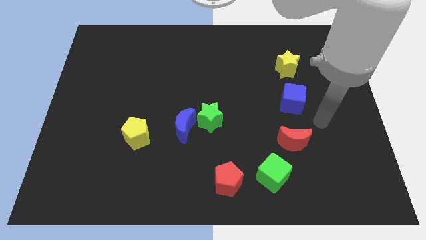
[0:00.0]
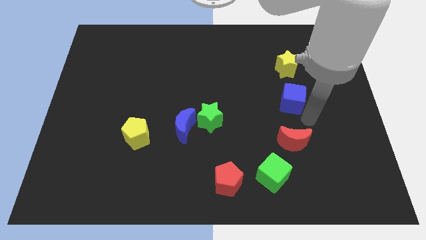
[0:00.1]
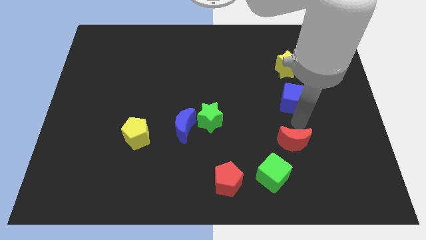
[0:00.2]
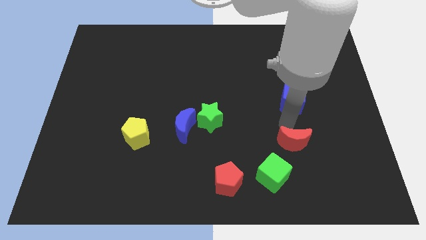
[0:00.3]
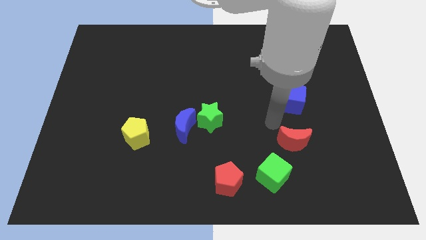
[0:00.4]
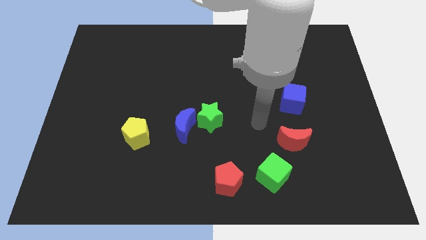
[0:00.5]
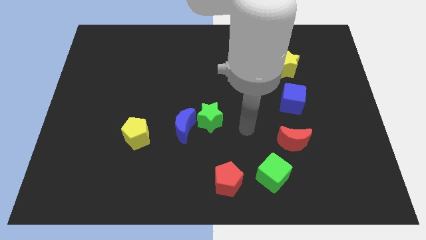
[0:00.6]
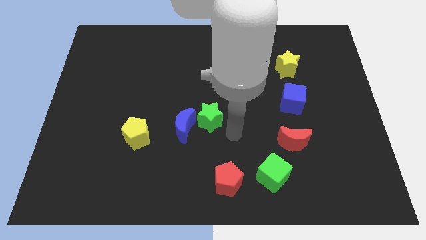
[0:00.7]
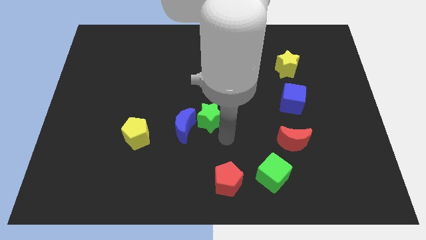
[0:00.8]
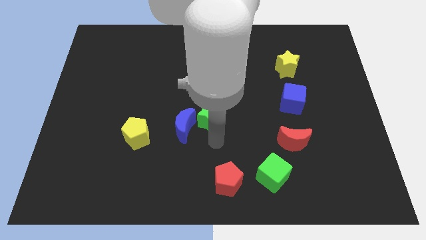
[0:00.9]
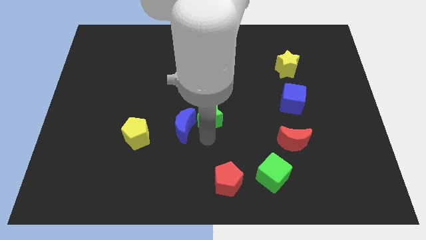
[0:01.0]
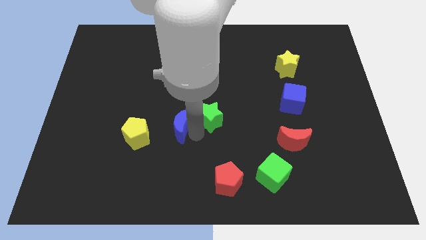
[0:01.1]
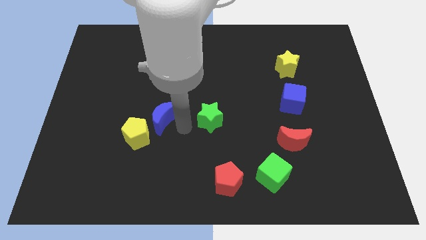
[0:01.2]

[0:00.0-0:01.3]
pull the green star apart from the blue moon

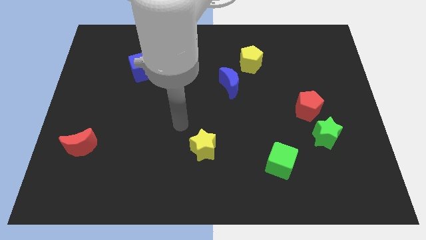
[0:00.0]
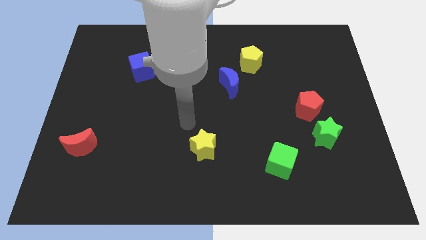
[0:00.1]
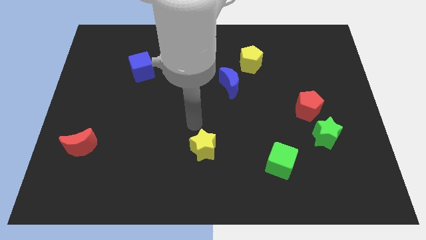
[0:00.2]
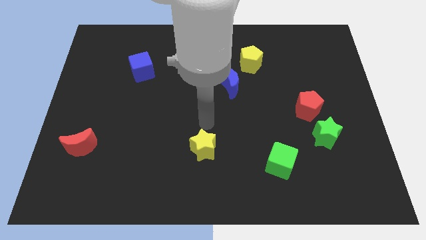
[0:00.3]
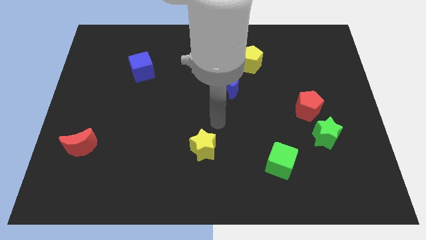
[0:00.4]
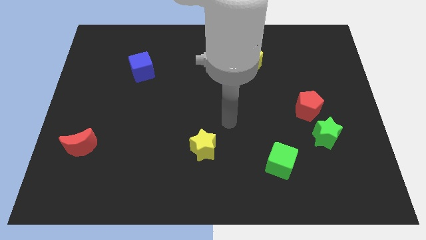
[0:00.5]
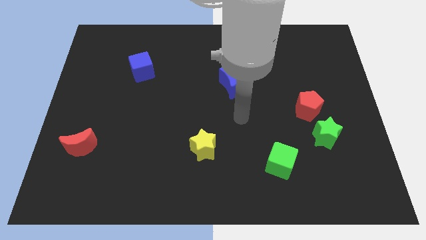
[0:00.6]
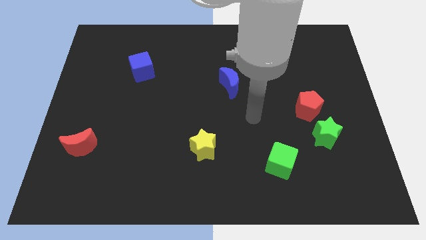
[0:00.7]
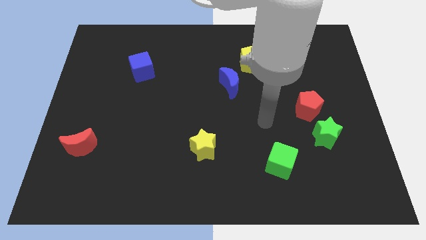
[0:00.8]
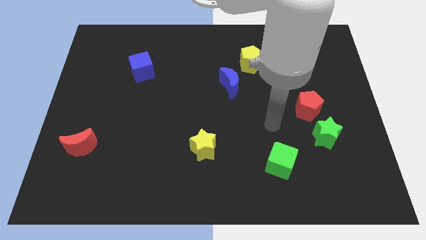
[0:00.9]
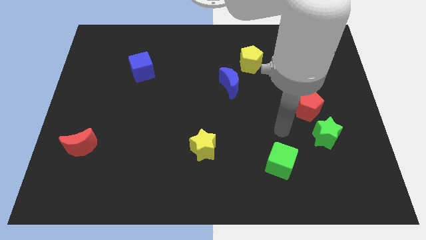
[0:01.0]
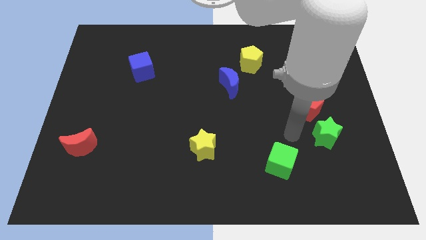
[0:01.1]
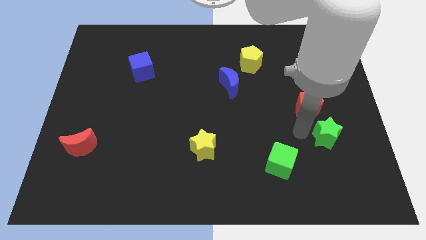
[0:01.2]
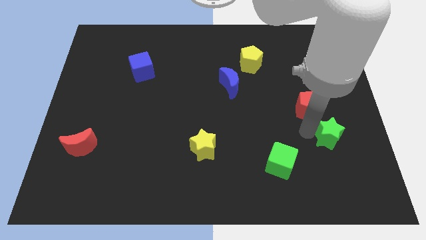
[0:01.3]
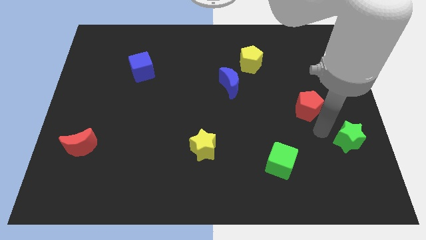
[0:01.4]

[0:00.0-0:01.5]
pull the red pentagon apart from the green star

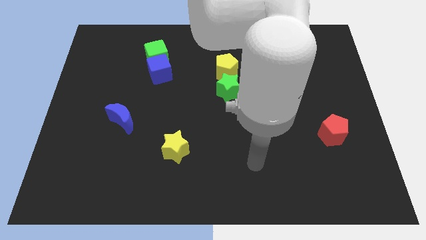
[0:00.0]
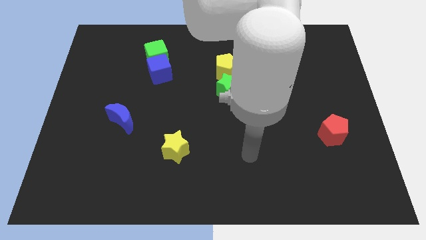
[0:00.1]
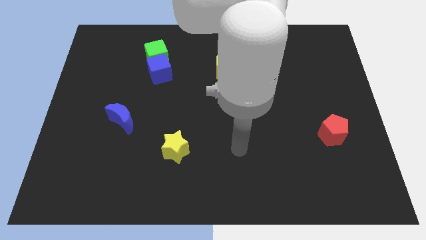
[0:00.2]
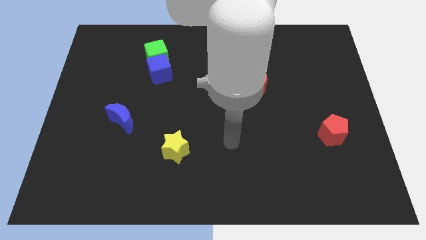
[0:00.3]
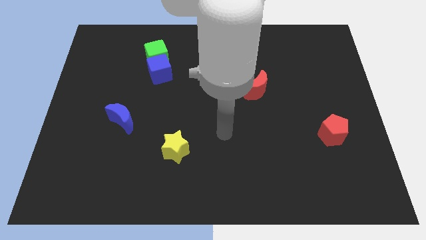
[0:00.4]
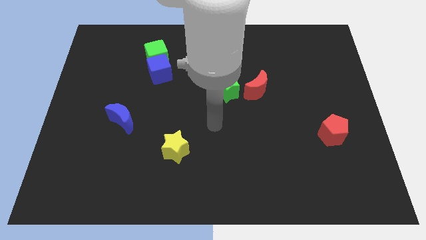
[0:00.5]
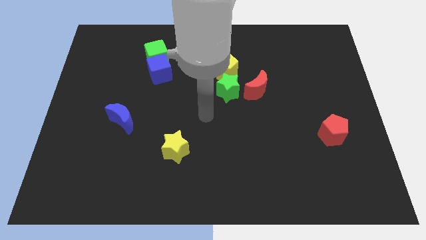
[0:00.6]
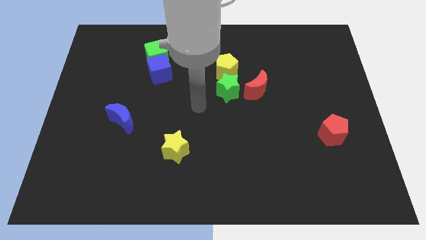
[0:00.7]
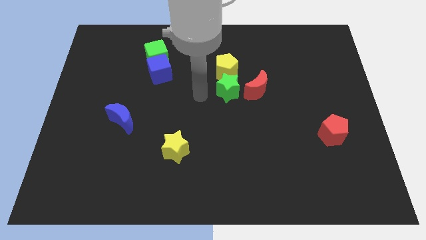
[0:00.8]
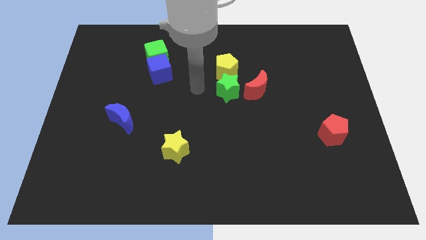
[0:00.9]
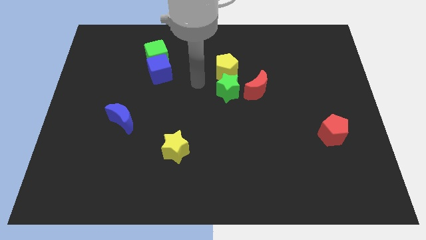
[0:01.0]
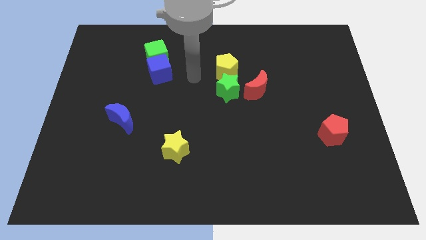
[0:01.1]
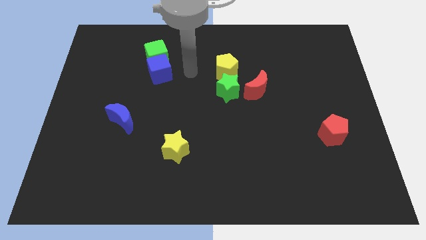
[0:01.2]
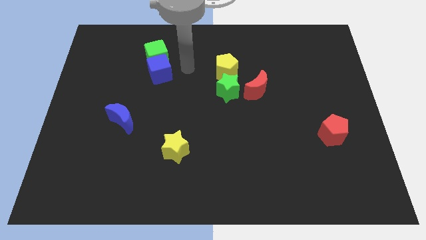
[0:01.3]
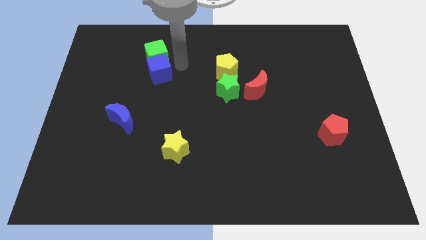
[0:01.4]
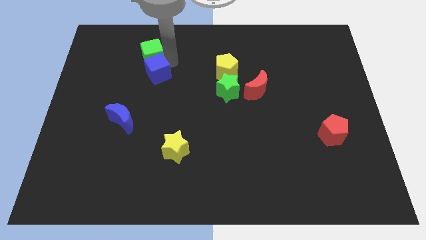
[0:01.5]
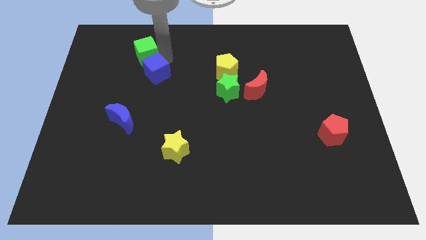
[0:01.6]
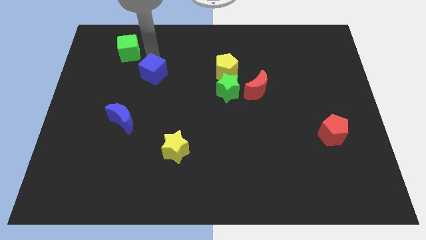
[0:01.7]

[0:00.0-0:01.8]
pull the blue cube apart from the green cube

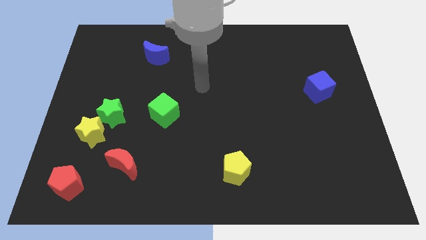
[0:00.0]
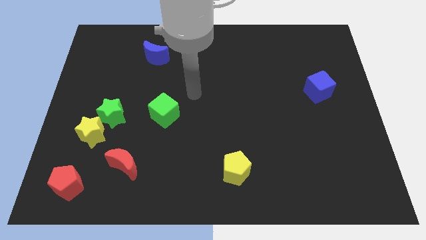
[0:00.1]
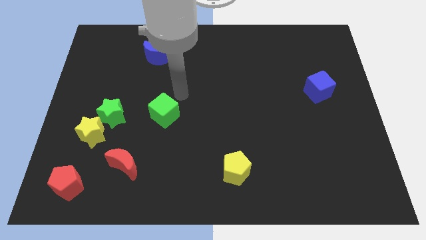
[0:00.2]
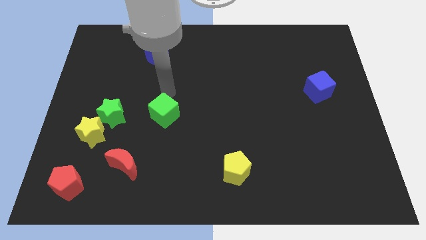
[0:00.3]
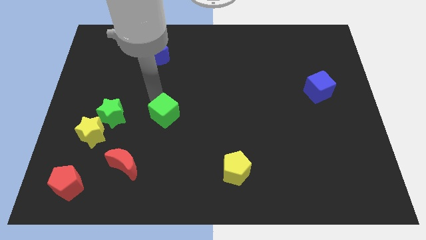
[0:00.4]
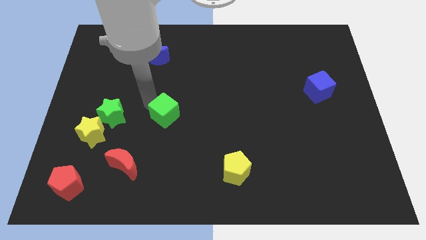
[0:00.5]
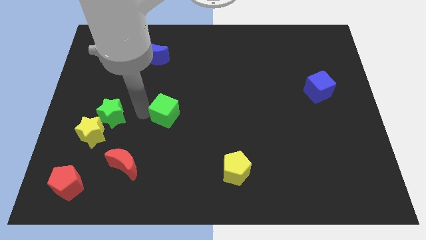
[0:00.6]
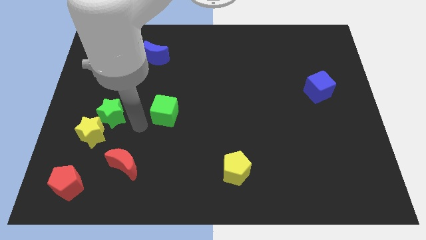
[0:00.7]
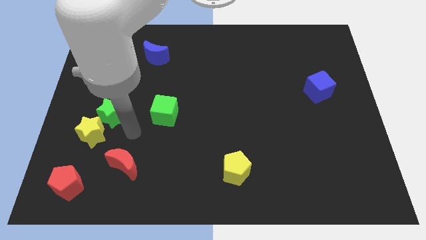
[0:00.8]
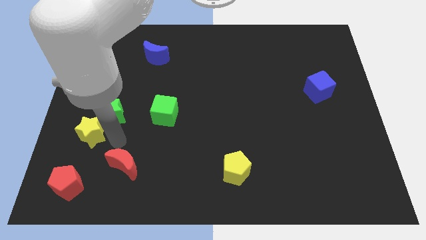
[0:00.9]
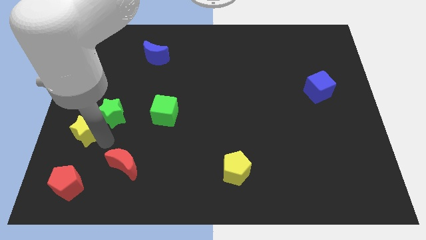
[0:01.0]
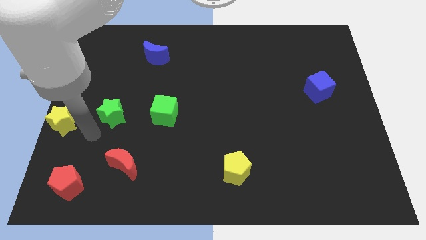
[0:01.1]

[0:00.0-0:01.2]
separate the green star from the yellow star

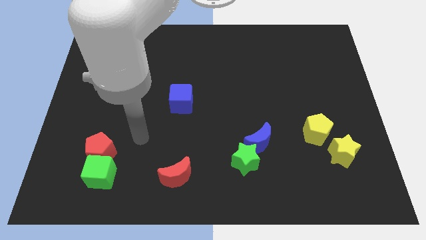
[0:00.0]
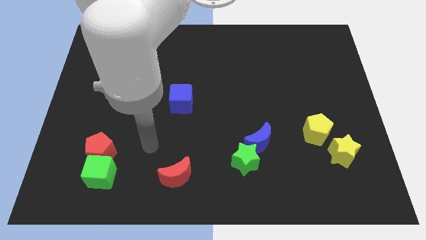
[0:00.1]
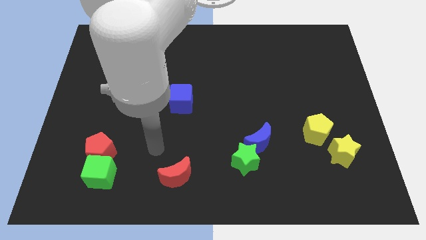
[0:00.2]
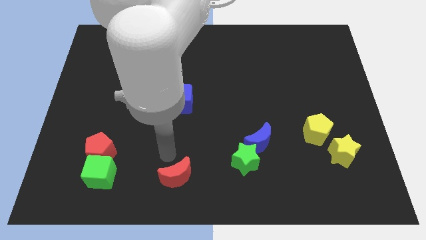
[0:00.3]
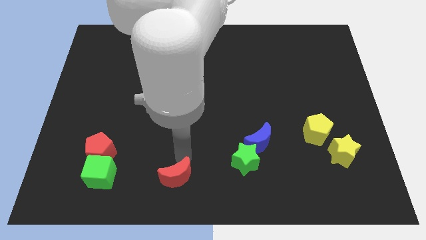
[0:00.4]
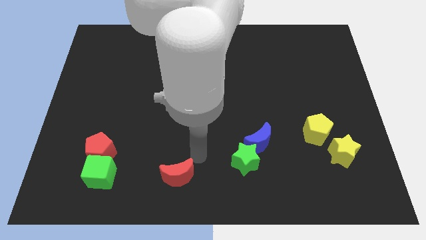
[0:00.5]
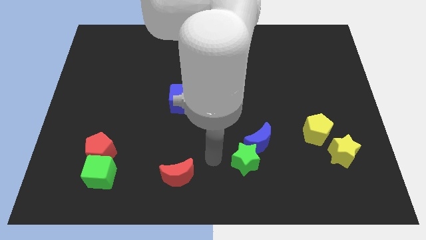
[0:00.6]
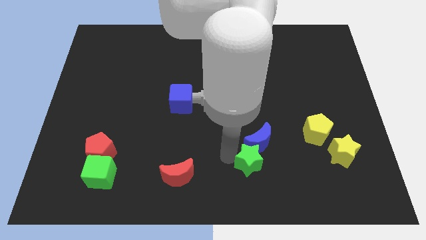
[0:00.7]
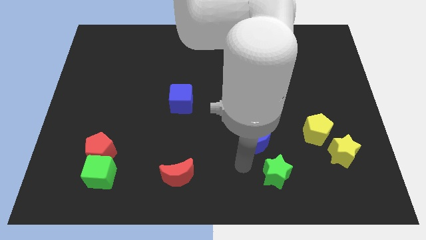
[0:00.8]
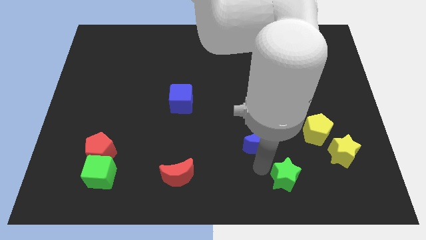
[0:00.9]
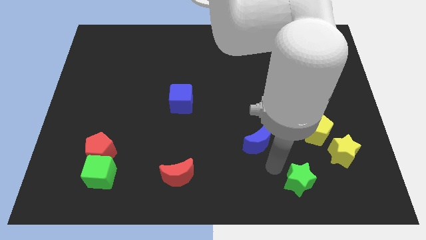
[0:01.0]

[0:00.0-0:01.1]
separate the blue moon from the green star

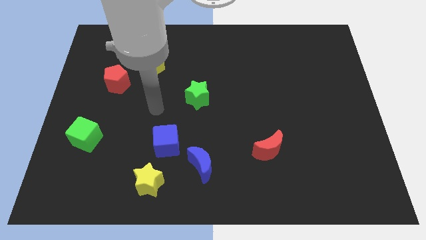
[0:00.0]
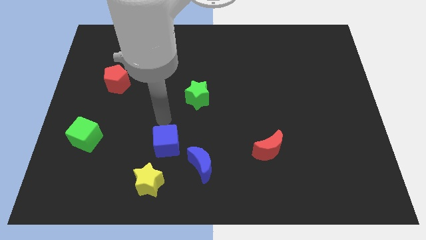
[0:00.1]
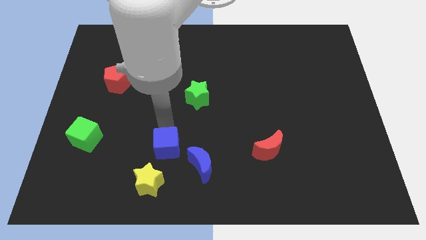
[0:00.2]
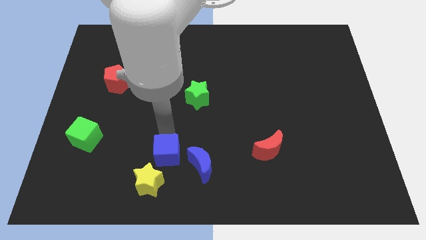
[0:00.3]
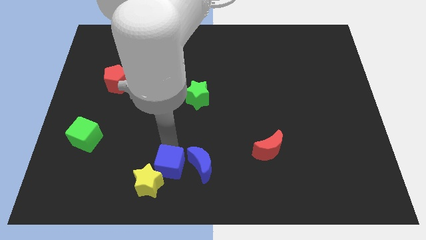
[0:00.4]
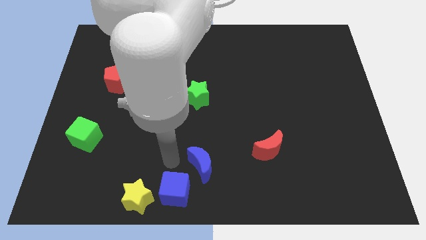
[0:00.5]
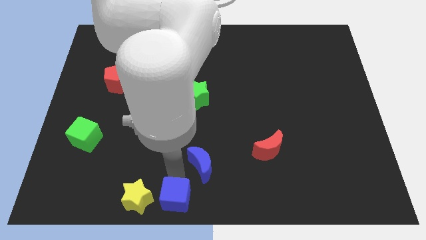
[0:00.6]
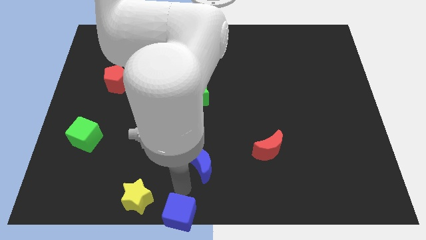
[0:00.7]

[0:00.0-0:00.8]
separate the blue moon from the blue cube

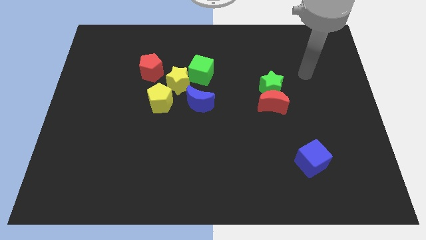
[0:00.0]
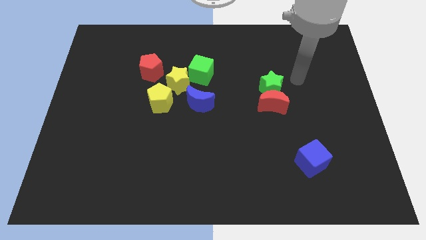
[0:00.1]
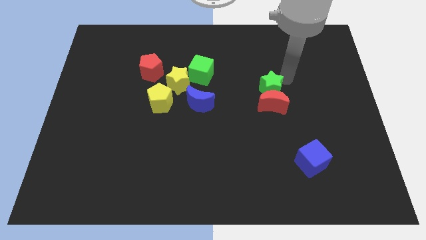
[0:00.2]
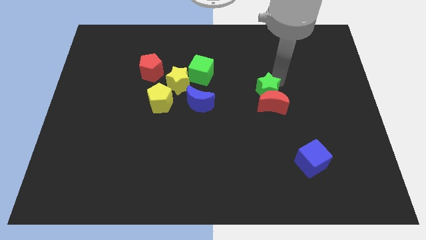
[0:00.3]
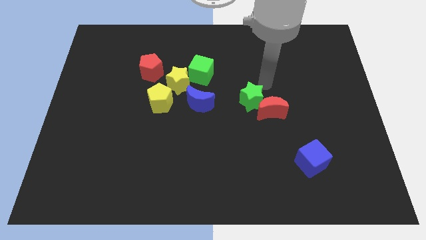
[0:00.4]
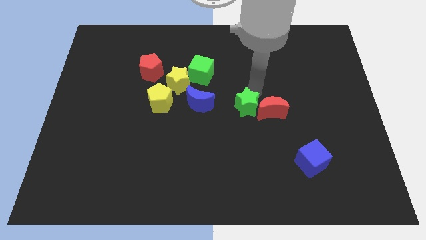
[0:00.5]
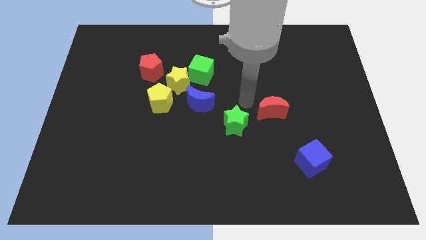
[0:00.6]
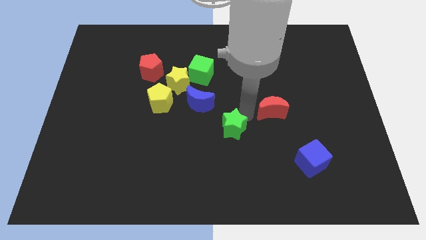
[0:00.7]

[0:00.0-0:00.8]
separate the red moon from the green star

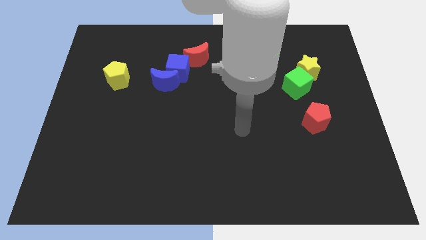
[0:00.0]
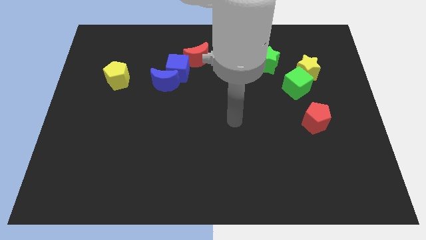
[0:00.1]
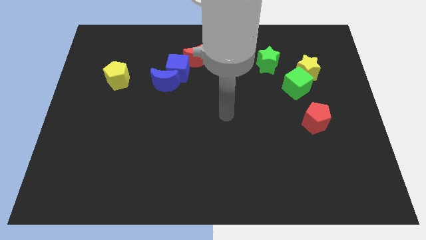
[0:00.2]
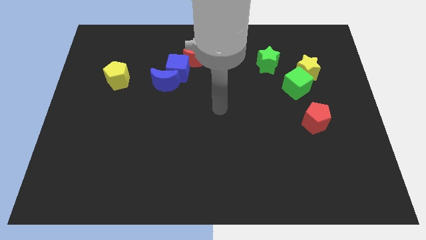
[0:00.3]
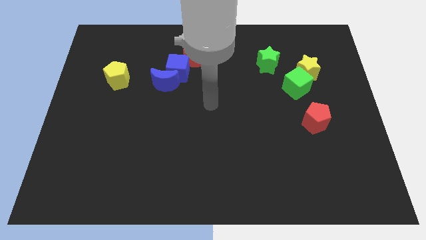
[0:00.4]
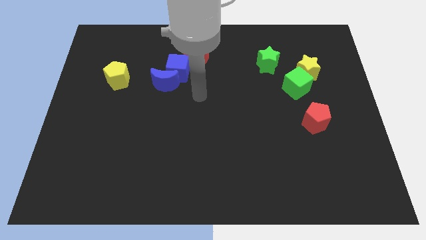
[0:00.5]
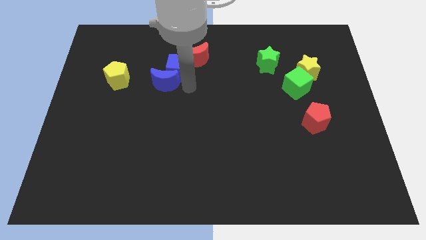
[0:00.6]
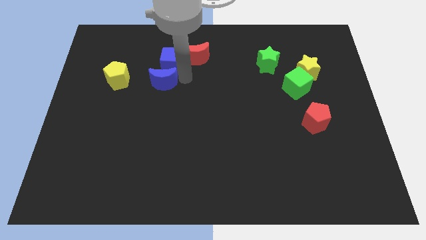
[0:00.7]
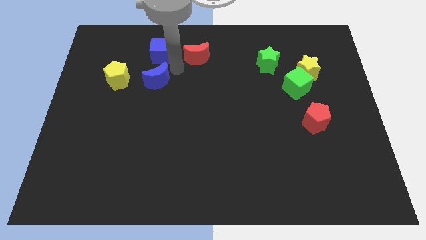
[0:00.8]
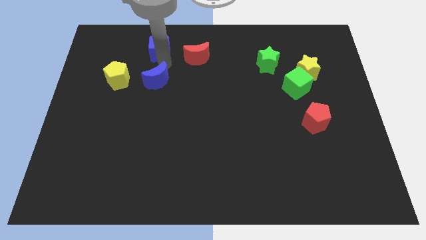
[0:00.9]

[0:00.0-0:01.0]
move the blue moon away from the blue cube
